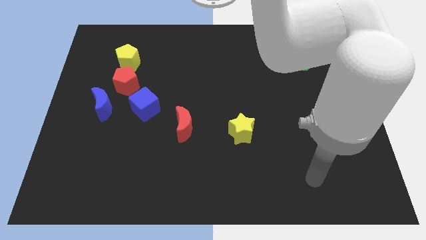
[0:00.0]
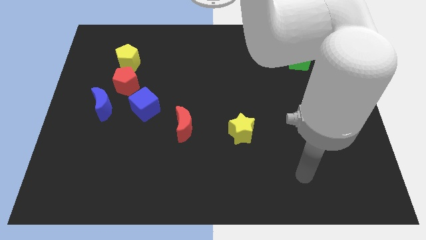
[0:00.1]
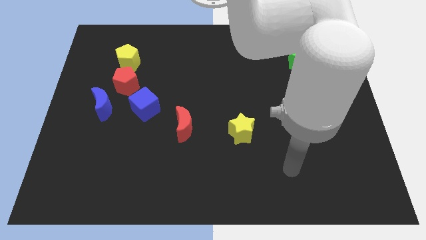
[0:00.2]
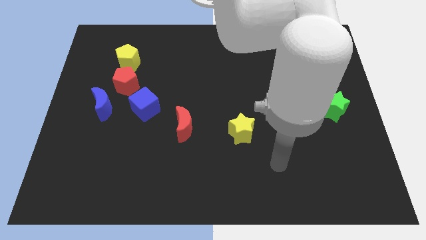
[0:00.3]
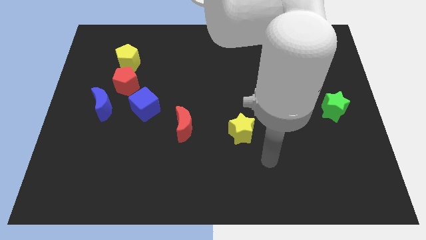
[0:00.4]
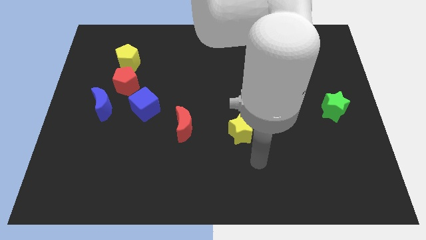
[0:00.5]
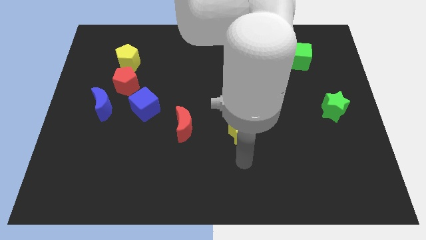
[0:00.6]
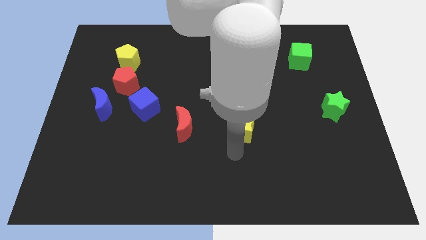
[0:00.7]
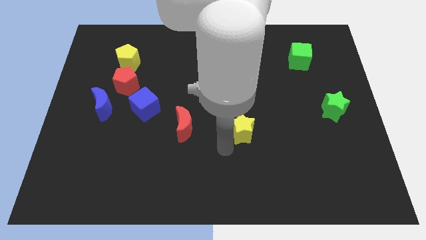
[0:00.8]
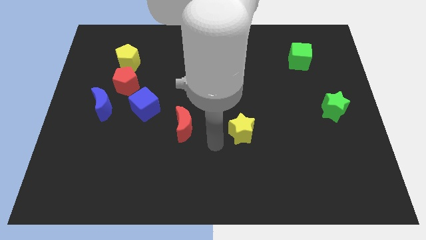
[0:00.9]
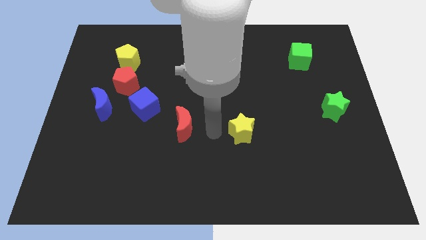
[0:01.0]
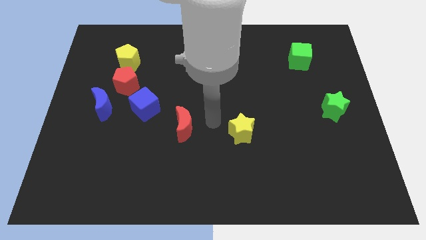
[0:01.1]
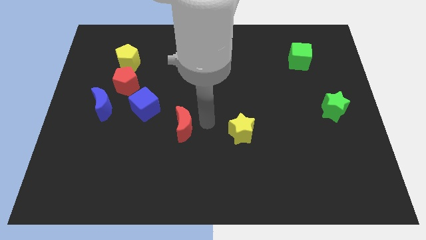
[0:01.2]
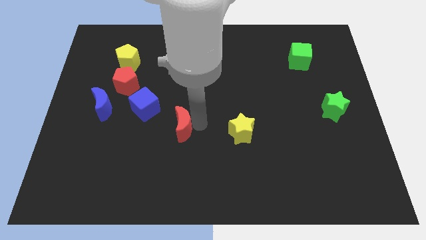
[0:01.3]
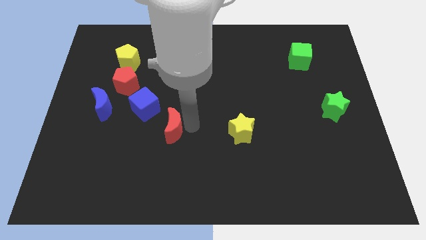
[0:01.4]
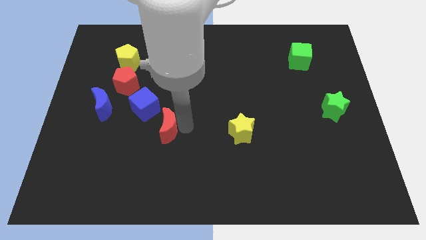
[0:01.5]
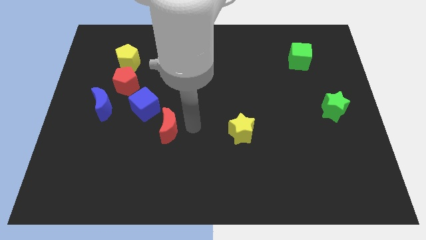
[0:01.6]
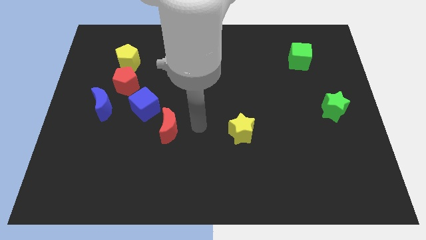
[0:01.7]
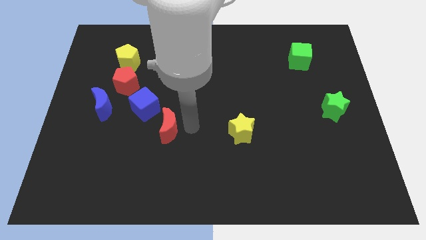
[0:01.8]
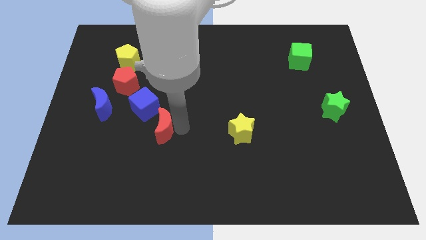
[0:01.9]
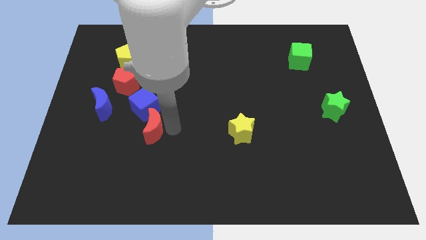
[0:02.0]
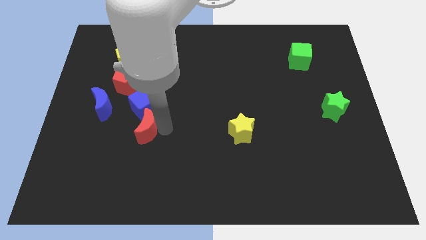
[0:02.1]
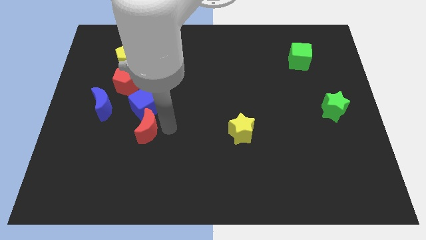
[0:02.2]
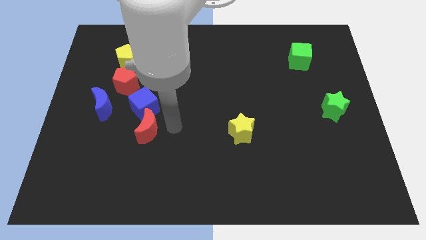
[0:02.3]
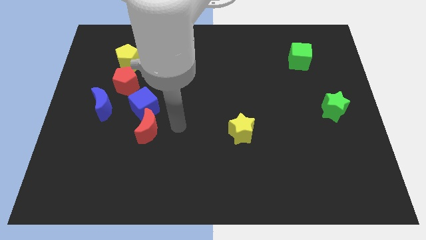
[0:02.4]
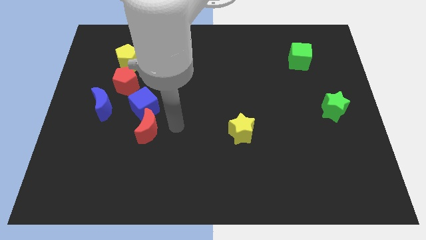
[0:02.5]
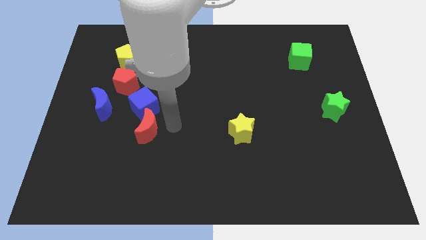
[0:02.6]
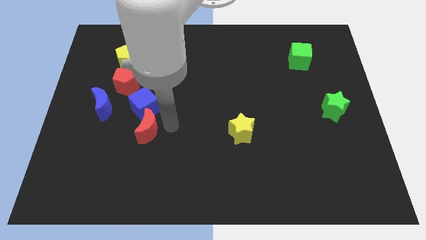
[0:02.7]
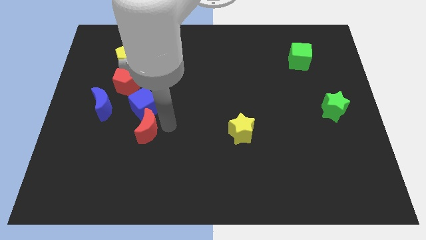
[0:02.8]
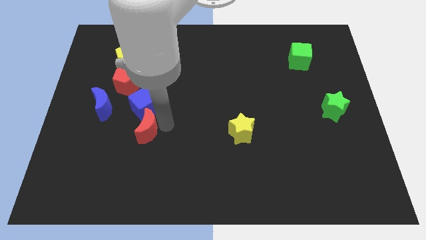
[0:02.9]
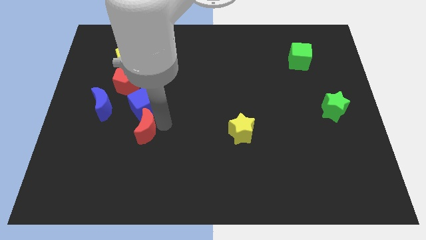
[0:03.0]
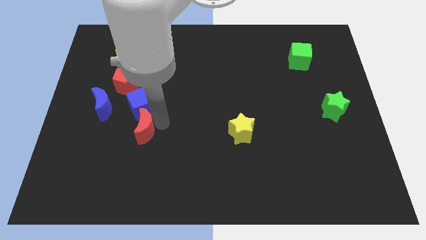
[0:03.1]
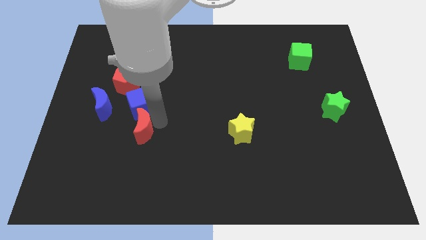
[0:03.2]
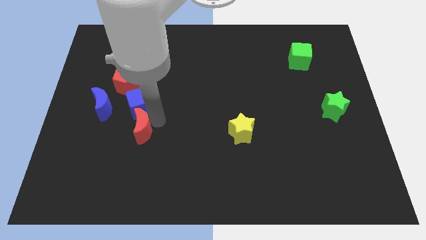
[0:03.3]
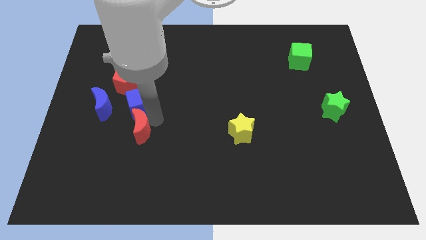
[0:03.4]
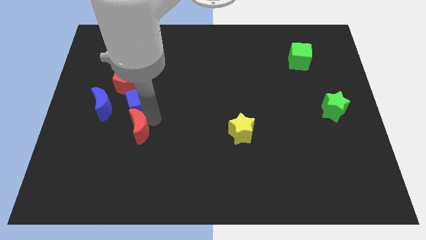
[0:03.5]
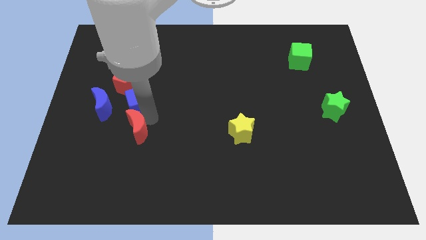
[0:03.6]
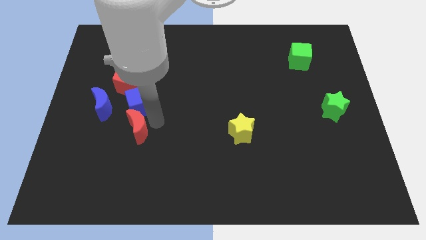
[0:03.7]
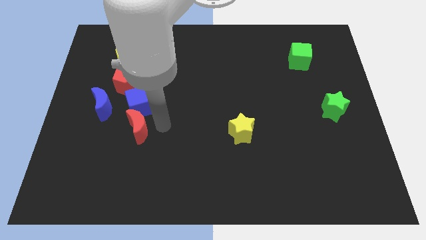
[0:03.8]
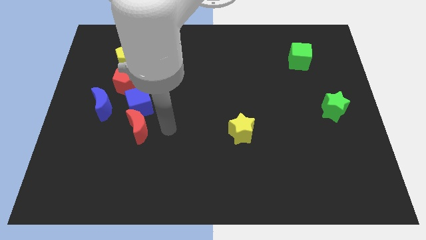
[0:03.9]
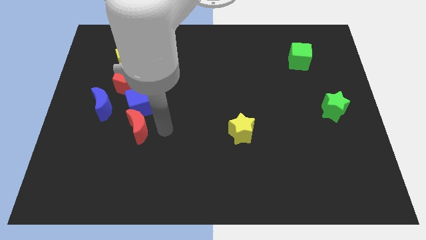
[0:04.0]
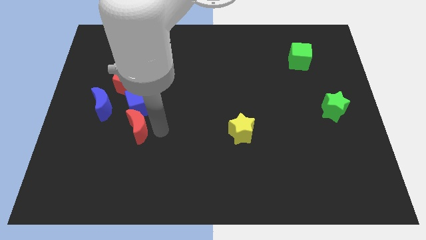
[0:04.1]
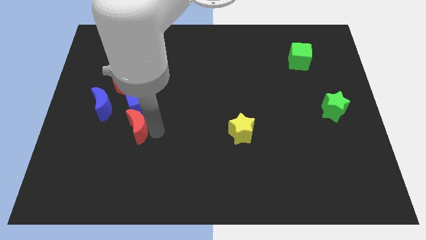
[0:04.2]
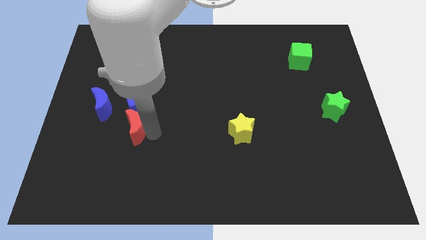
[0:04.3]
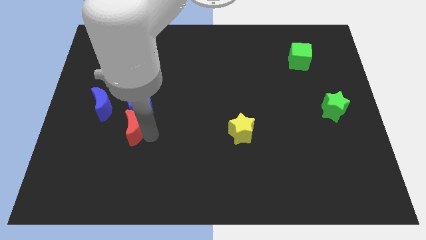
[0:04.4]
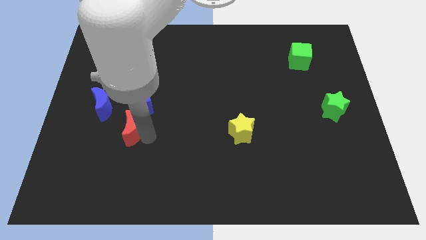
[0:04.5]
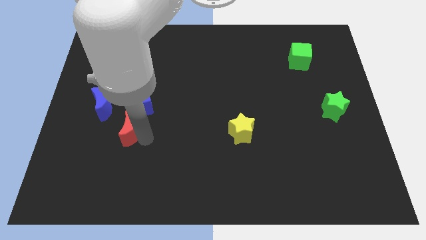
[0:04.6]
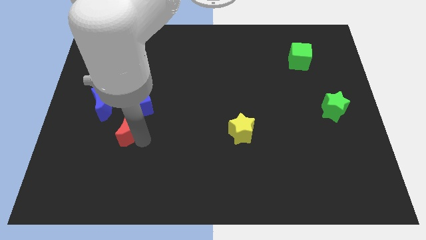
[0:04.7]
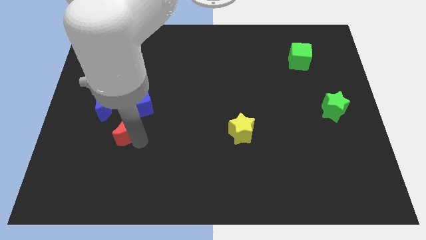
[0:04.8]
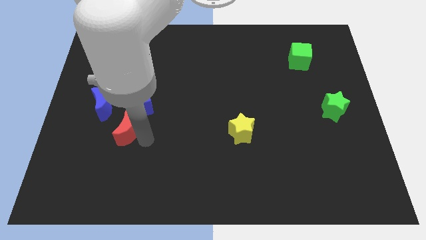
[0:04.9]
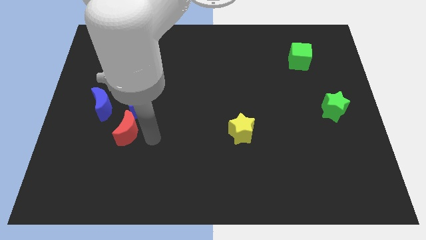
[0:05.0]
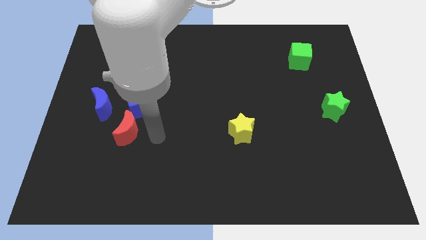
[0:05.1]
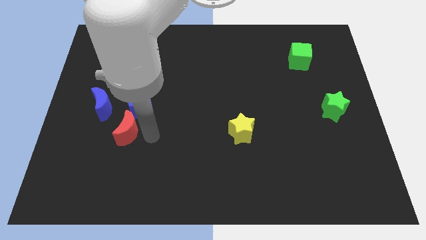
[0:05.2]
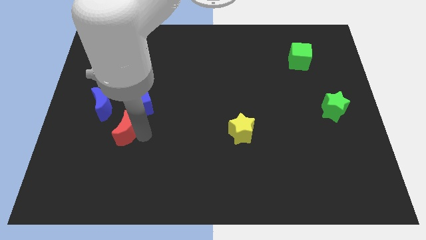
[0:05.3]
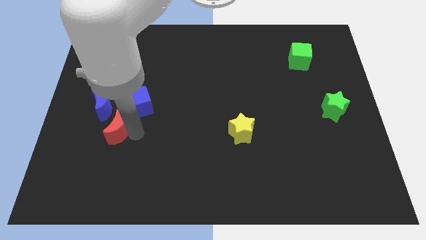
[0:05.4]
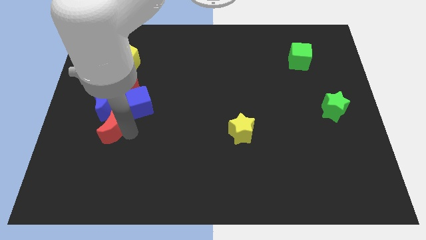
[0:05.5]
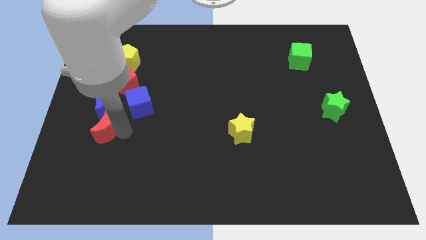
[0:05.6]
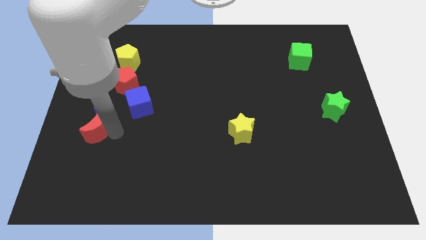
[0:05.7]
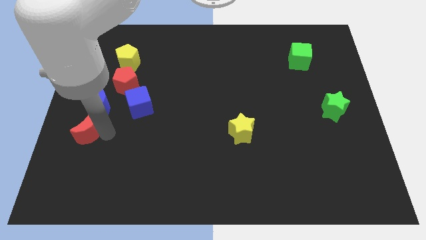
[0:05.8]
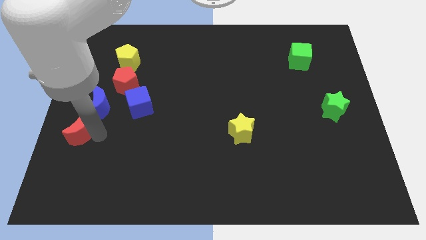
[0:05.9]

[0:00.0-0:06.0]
move the red moon to the left side
